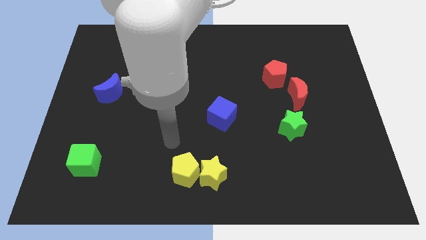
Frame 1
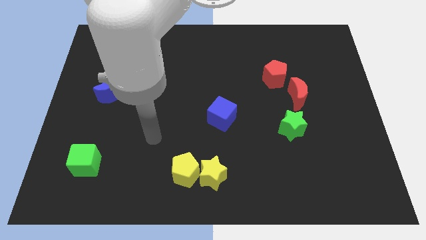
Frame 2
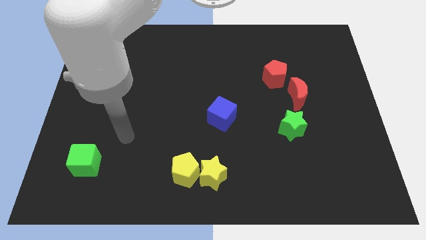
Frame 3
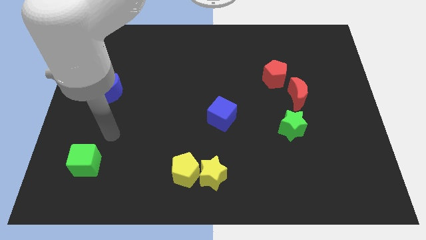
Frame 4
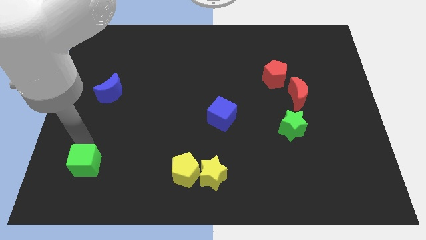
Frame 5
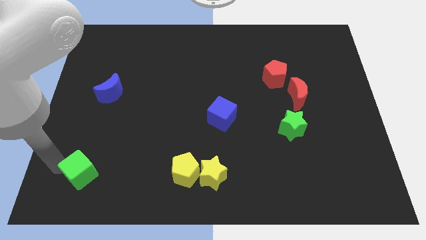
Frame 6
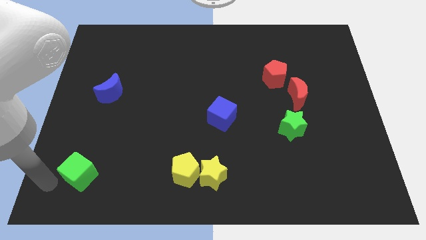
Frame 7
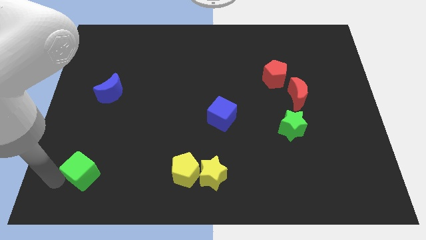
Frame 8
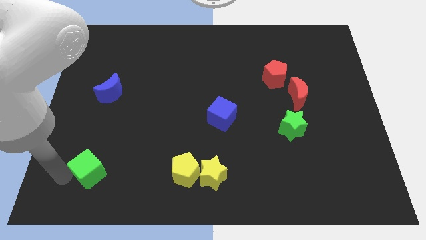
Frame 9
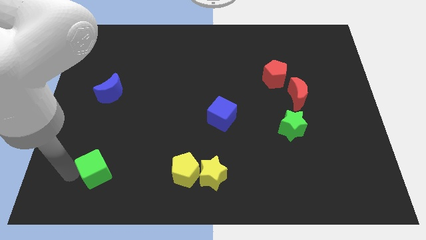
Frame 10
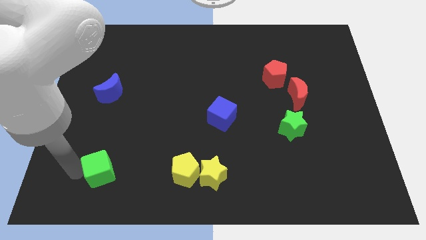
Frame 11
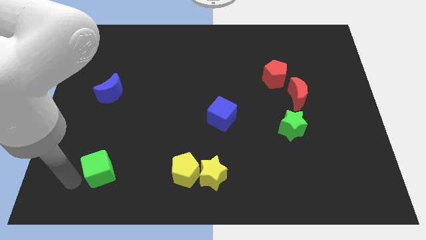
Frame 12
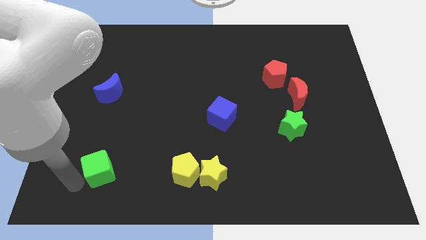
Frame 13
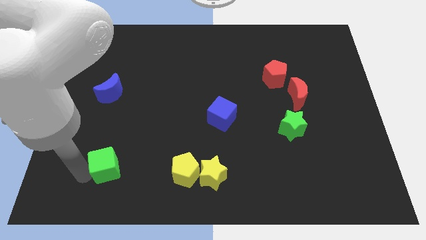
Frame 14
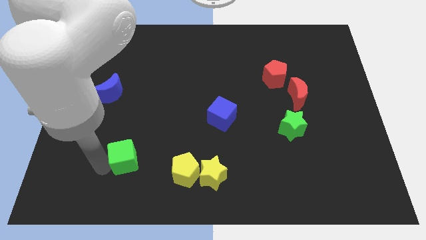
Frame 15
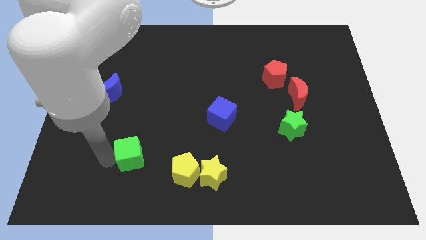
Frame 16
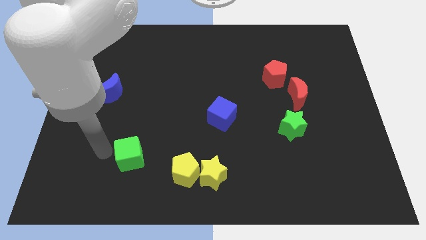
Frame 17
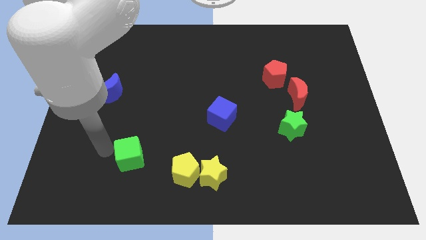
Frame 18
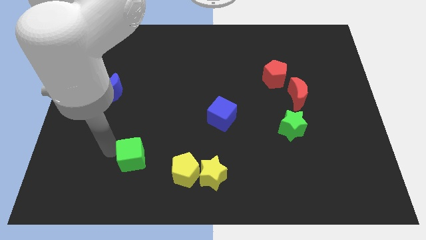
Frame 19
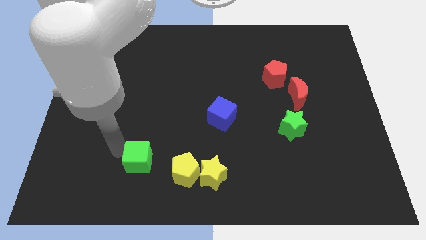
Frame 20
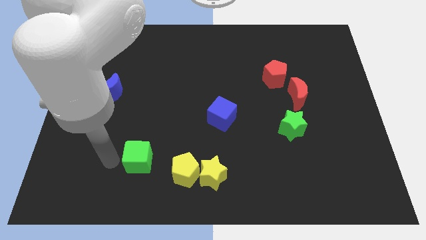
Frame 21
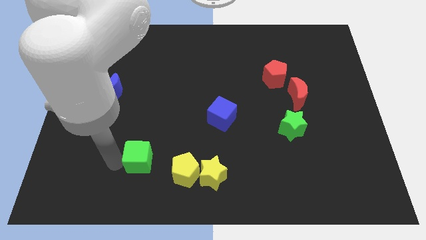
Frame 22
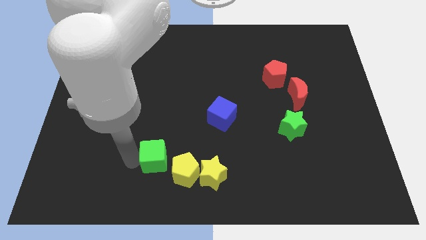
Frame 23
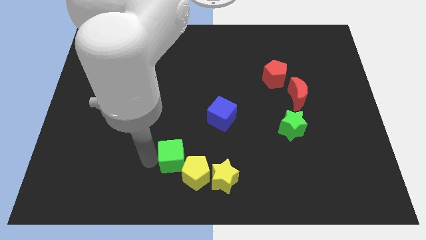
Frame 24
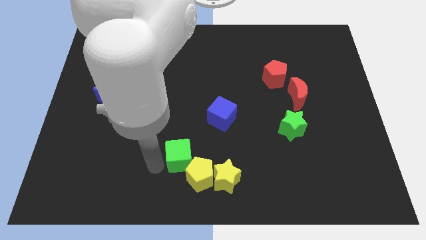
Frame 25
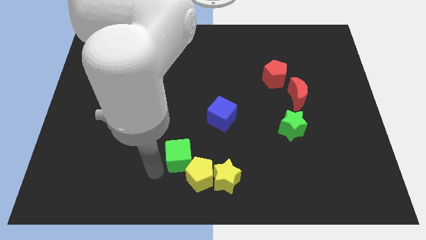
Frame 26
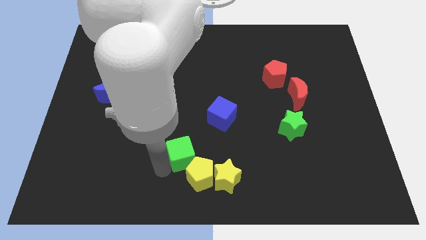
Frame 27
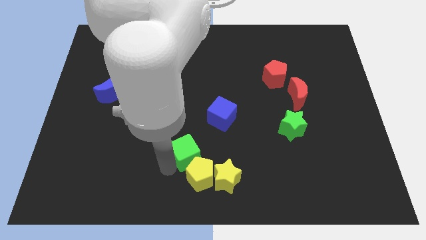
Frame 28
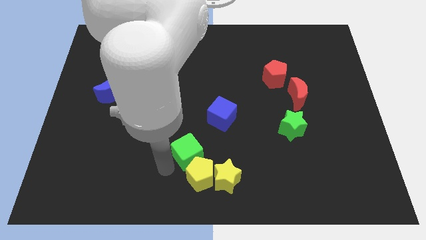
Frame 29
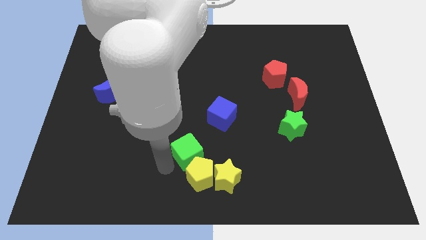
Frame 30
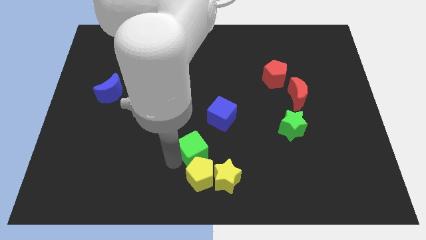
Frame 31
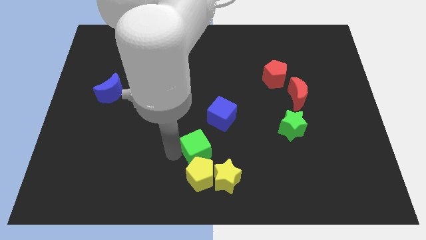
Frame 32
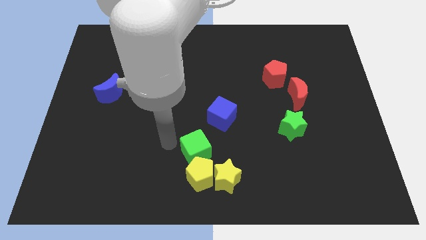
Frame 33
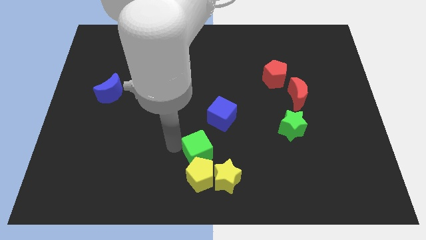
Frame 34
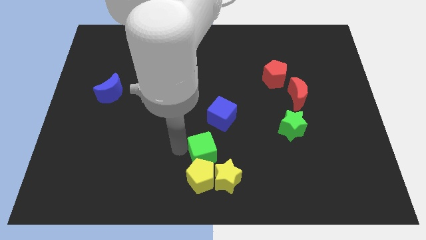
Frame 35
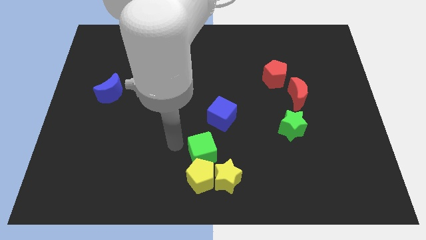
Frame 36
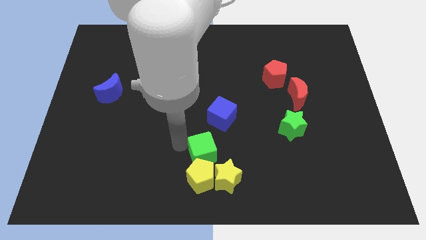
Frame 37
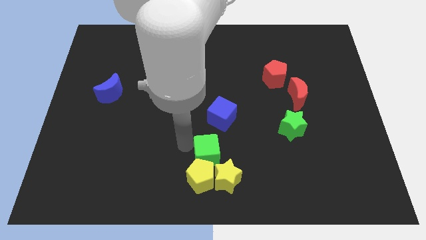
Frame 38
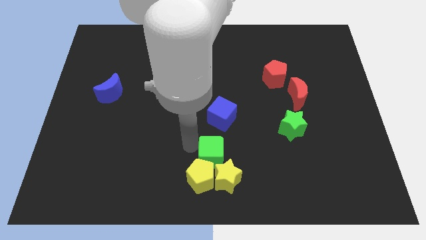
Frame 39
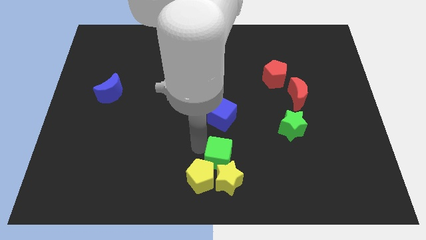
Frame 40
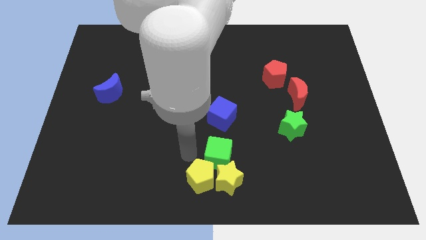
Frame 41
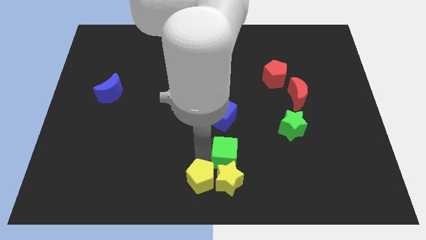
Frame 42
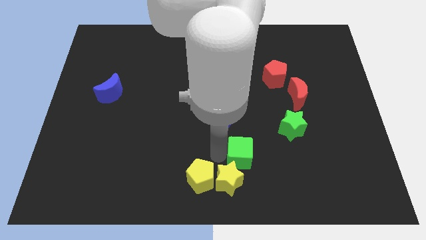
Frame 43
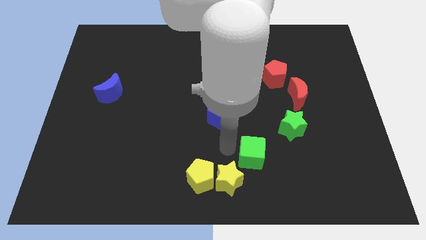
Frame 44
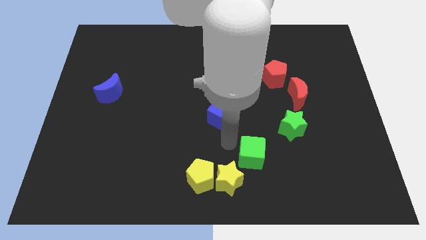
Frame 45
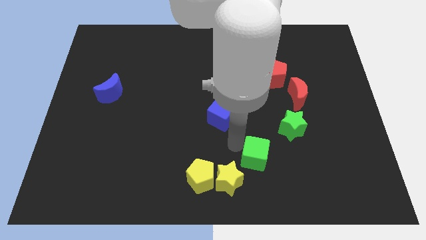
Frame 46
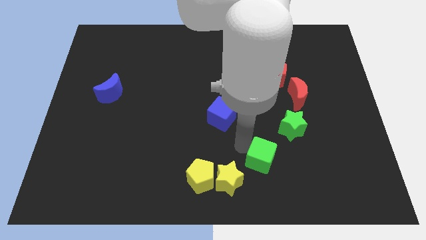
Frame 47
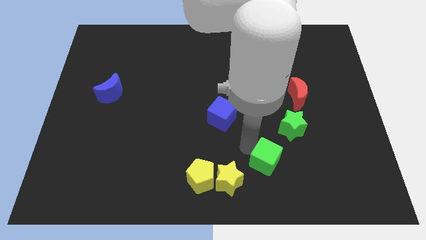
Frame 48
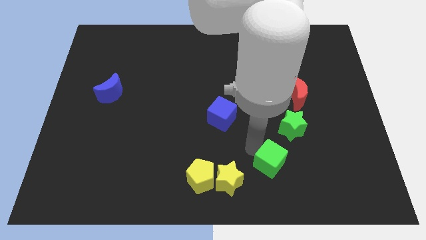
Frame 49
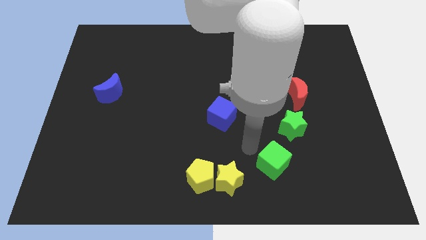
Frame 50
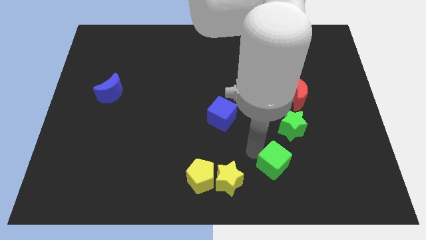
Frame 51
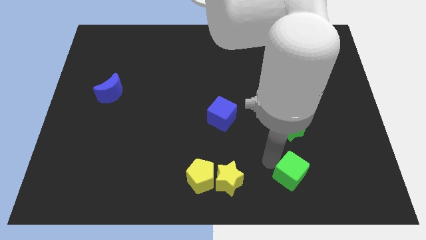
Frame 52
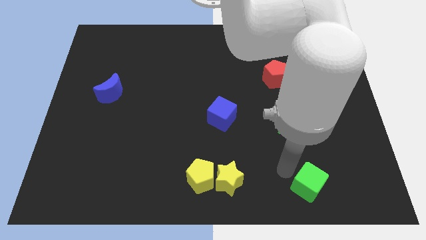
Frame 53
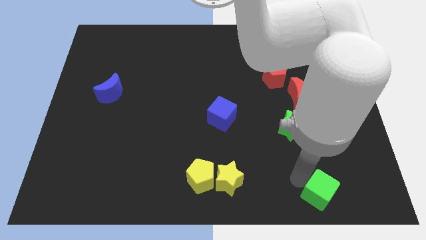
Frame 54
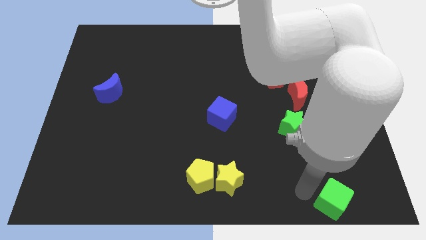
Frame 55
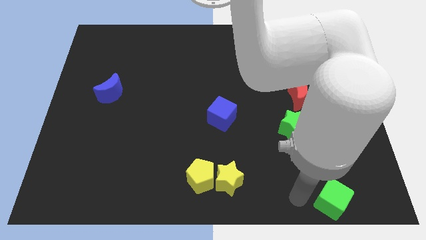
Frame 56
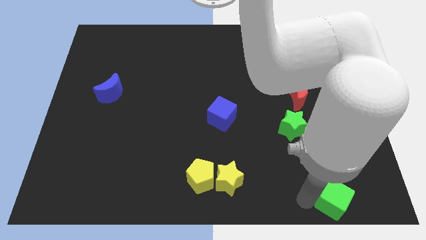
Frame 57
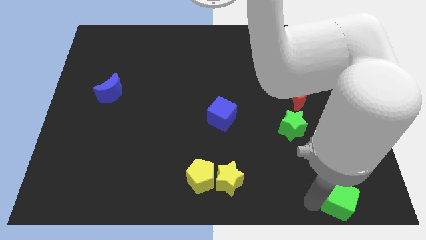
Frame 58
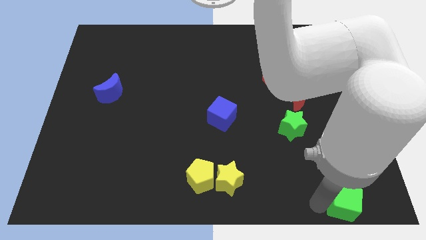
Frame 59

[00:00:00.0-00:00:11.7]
push the green cube to the bottom right of the board

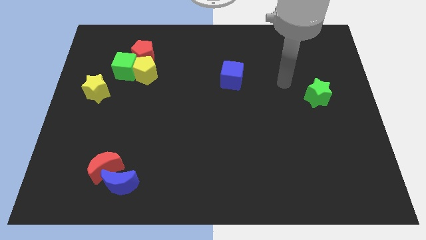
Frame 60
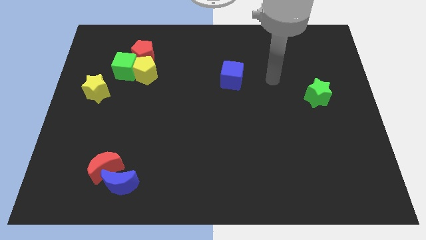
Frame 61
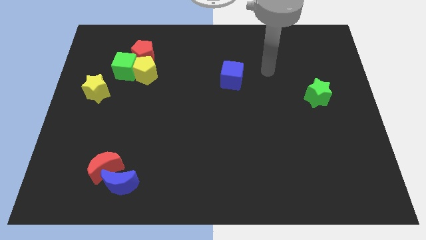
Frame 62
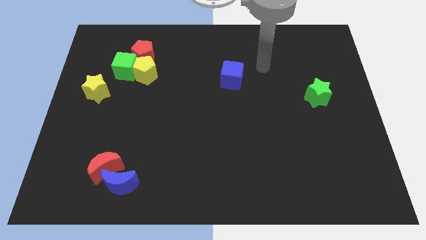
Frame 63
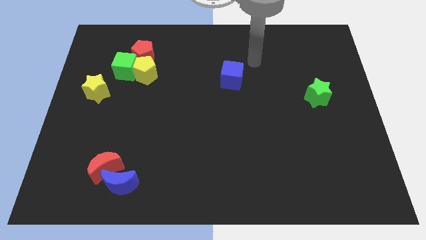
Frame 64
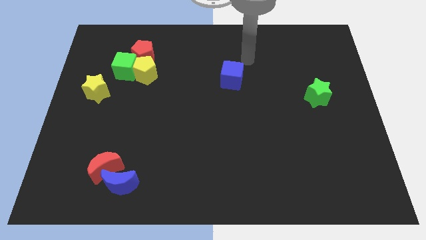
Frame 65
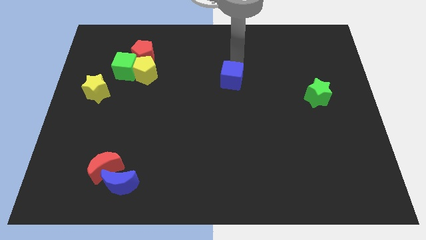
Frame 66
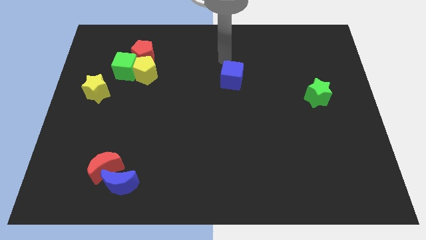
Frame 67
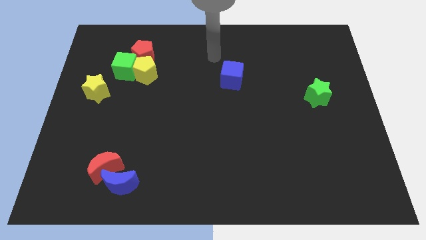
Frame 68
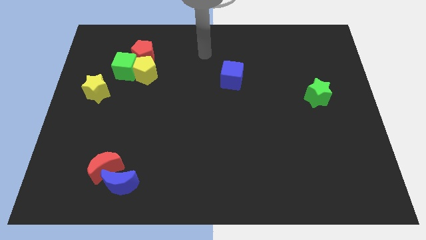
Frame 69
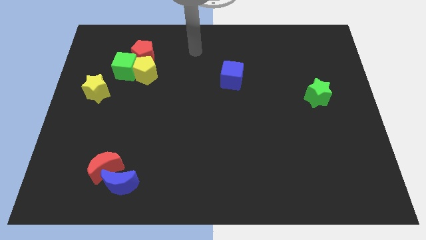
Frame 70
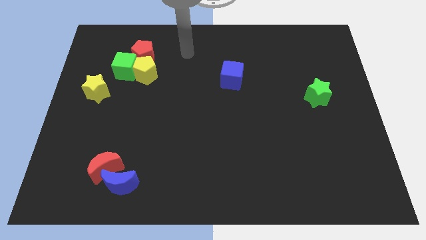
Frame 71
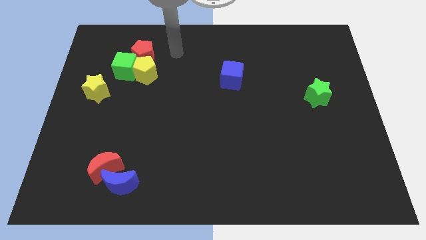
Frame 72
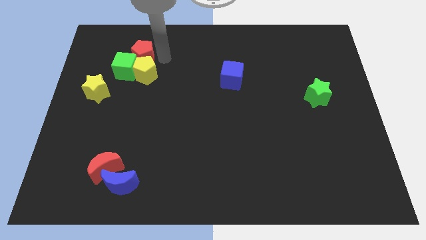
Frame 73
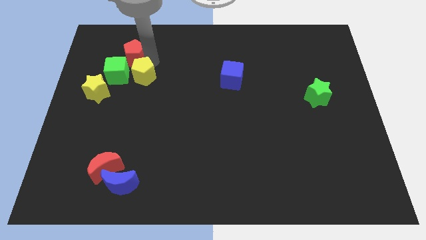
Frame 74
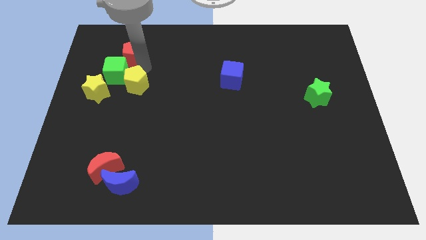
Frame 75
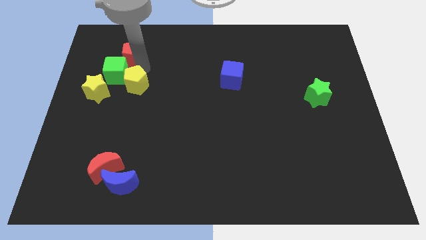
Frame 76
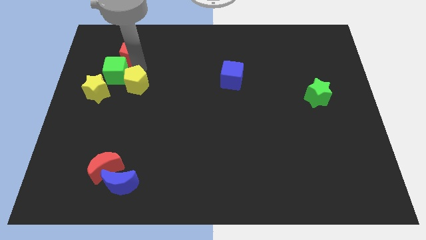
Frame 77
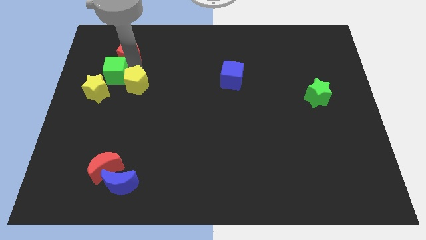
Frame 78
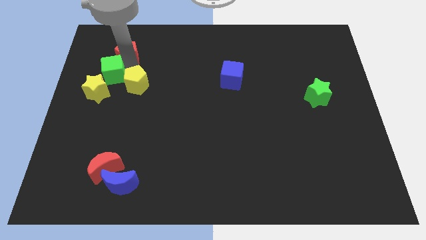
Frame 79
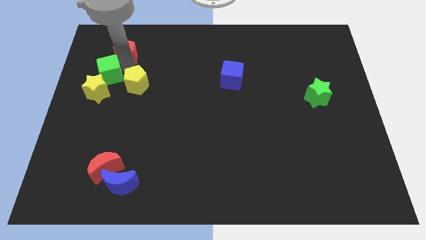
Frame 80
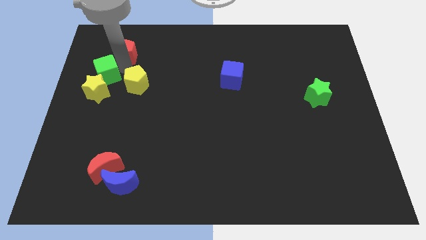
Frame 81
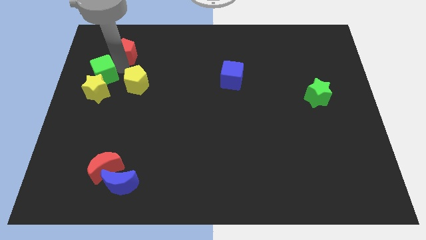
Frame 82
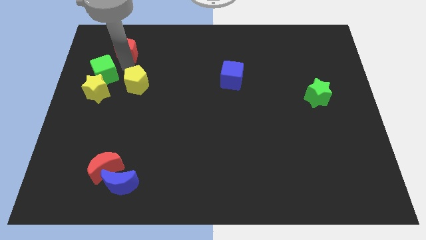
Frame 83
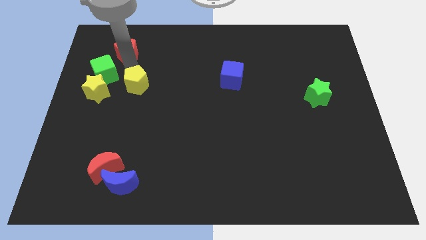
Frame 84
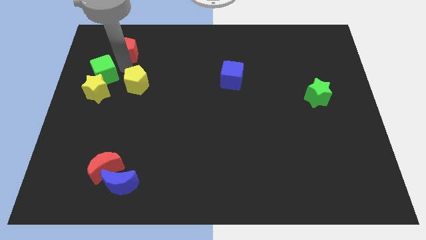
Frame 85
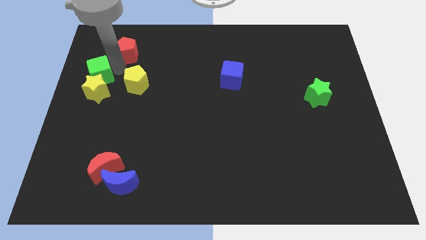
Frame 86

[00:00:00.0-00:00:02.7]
put the green cube to the left side of the board
